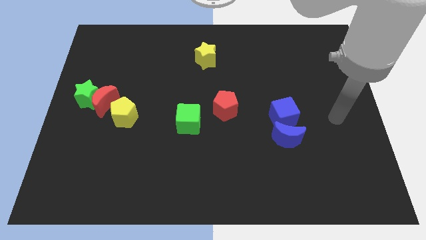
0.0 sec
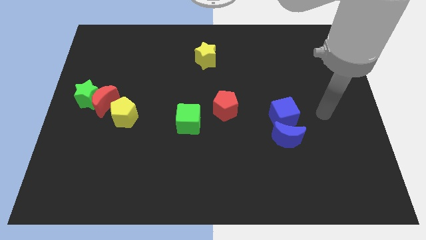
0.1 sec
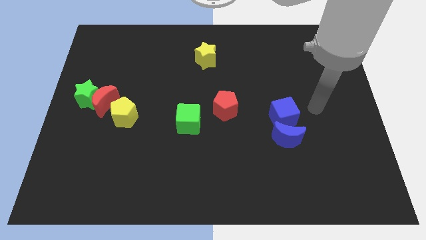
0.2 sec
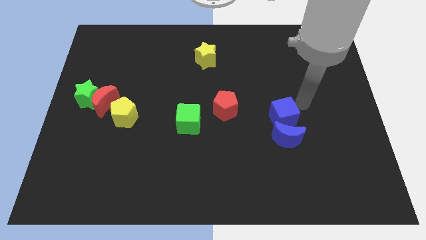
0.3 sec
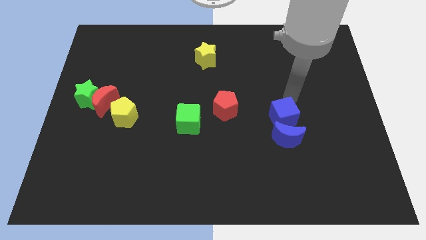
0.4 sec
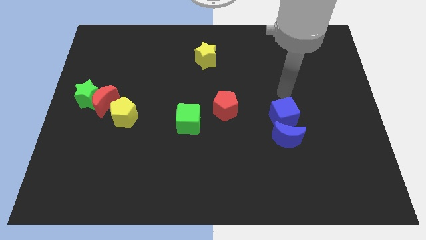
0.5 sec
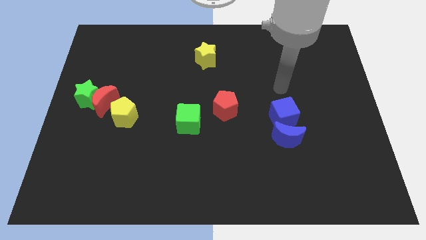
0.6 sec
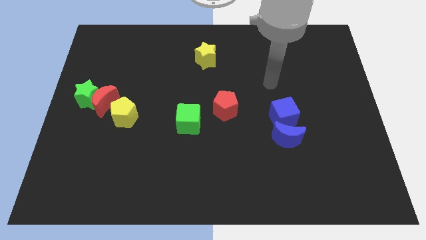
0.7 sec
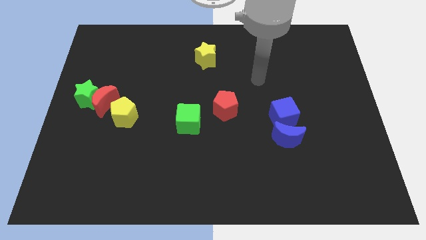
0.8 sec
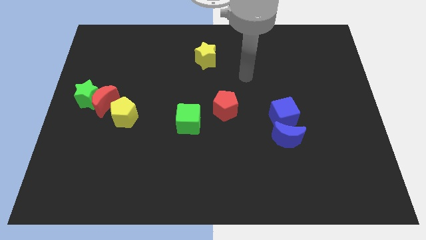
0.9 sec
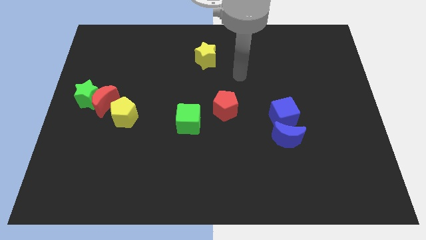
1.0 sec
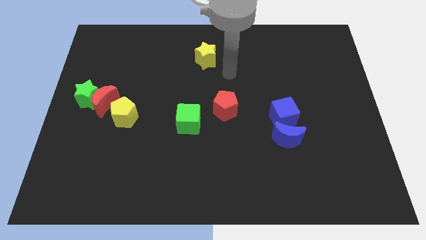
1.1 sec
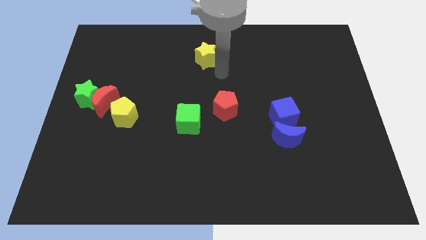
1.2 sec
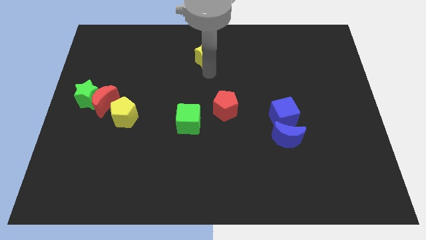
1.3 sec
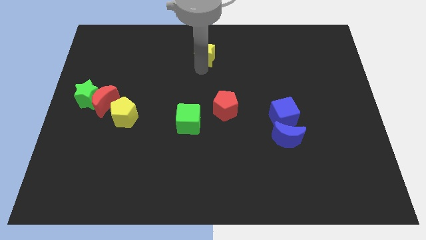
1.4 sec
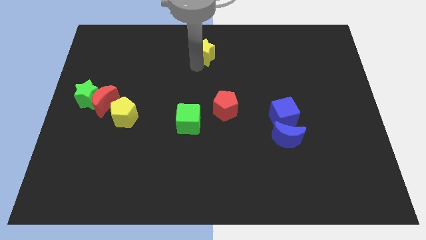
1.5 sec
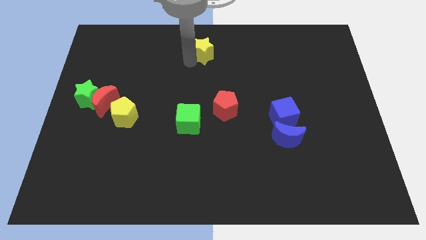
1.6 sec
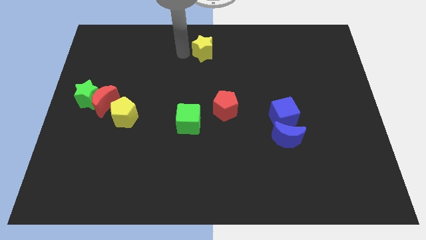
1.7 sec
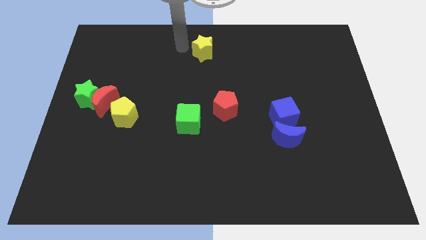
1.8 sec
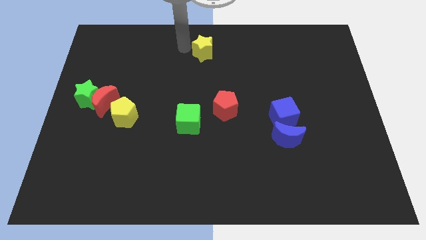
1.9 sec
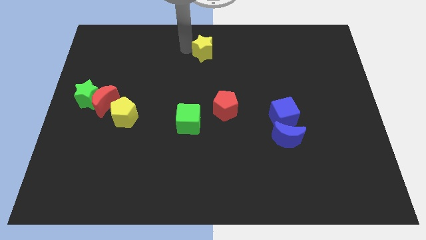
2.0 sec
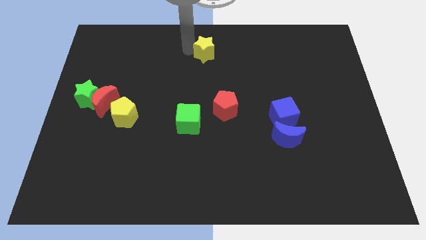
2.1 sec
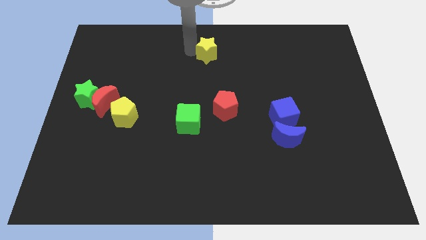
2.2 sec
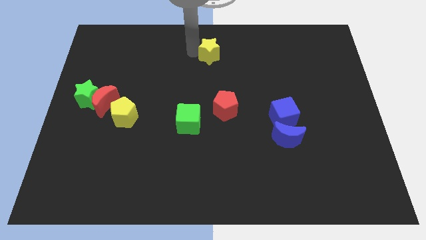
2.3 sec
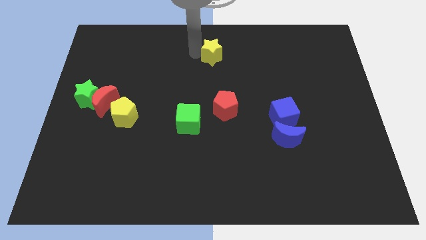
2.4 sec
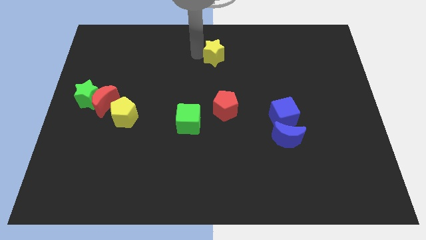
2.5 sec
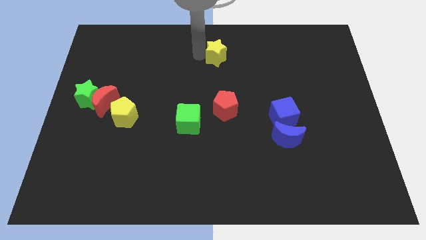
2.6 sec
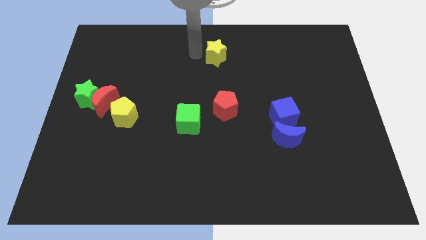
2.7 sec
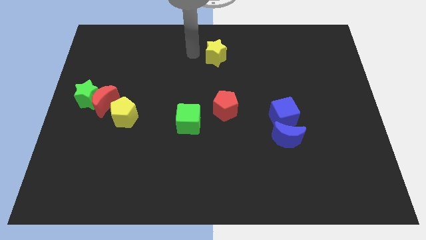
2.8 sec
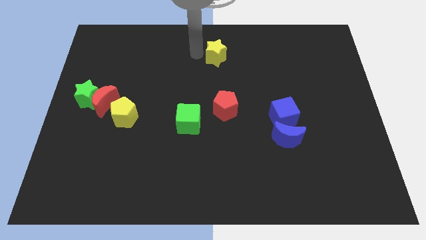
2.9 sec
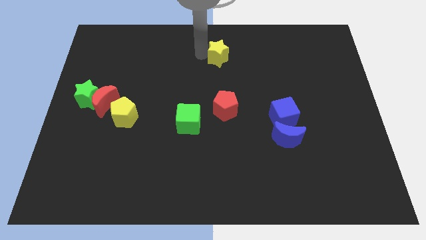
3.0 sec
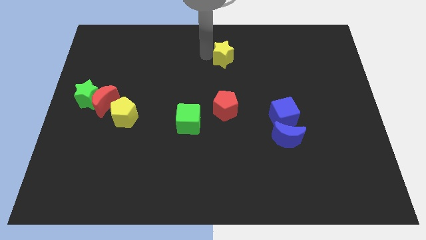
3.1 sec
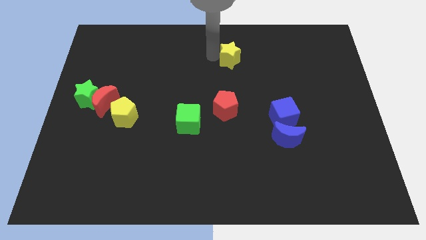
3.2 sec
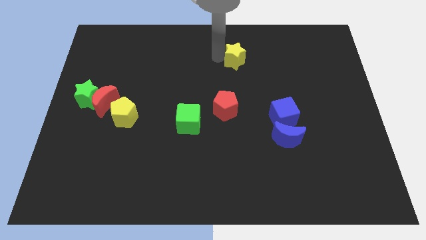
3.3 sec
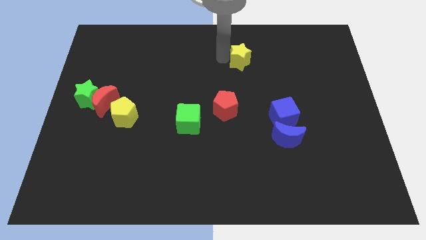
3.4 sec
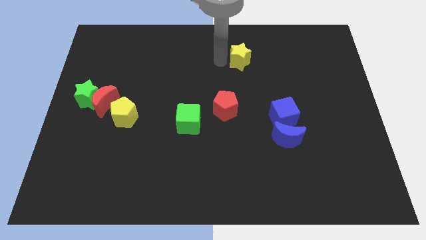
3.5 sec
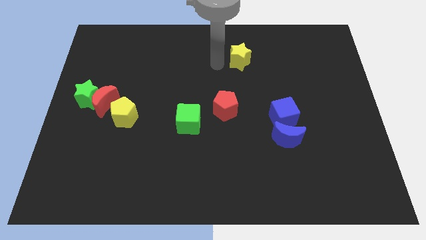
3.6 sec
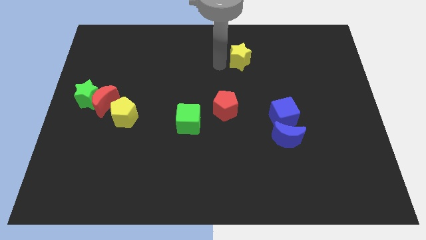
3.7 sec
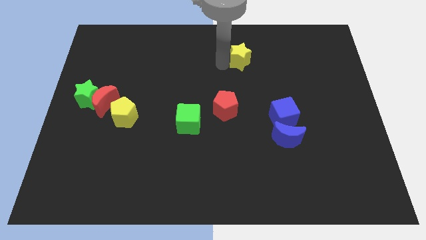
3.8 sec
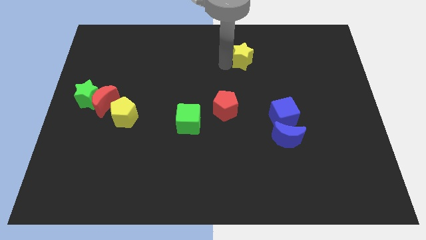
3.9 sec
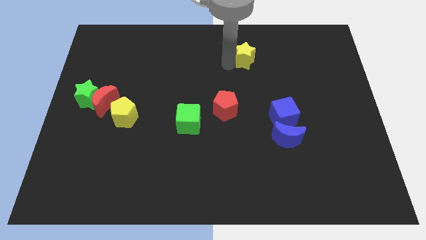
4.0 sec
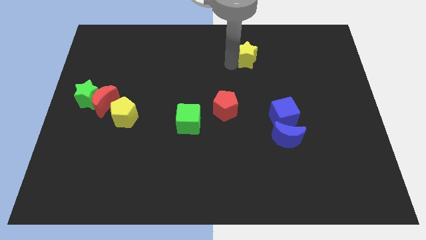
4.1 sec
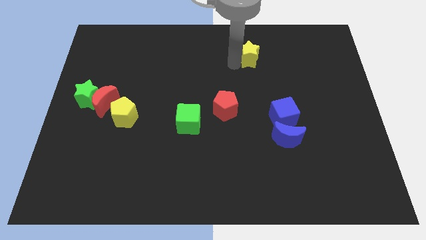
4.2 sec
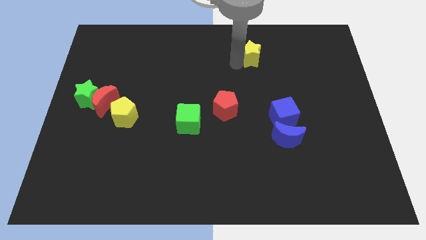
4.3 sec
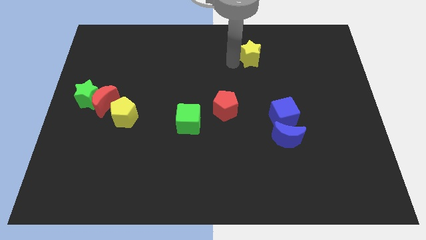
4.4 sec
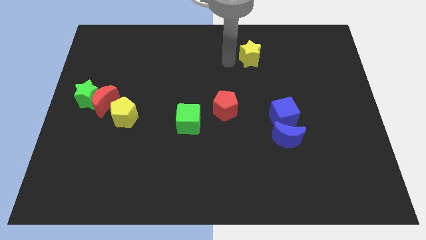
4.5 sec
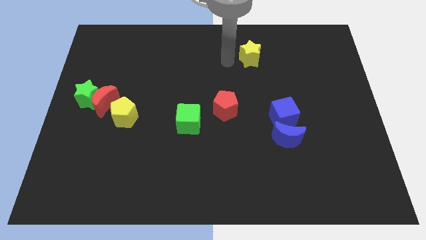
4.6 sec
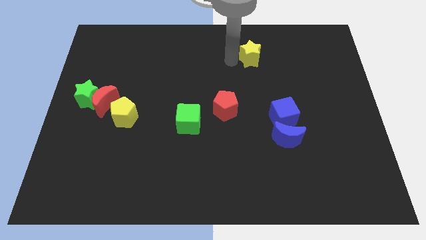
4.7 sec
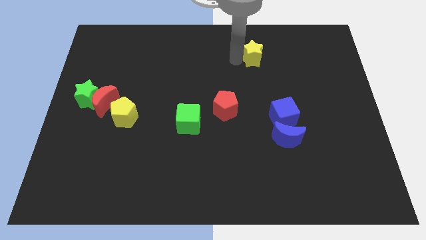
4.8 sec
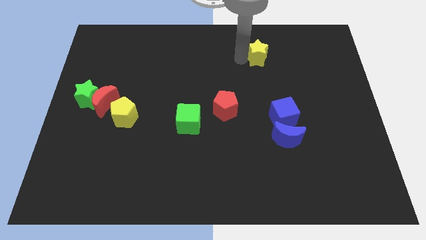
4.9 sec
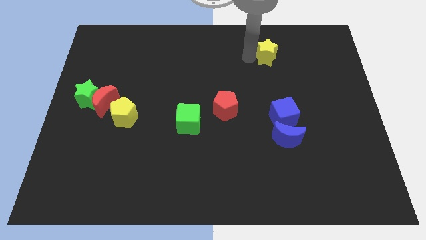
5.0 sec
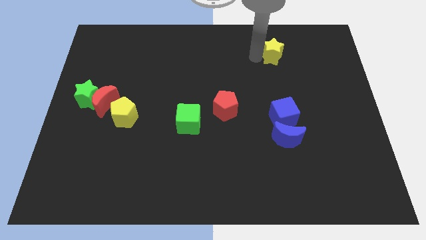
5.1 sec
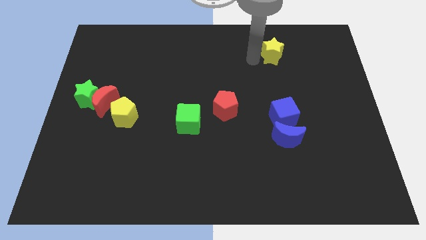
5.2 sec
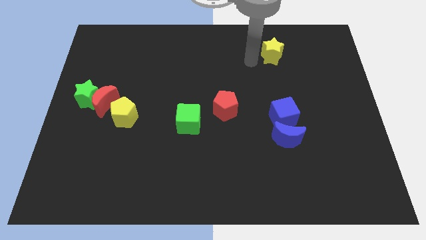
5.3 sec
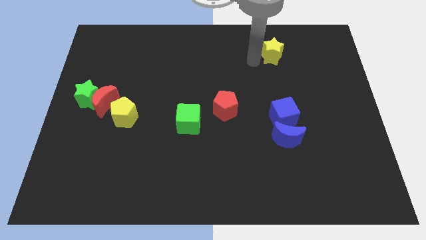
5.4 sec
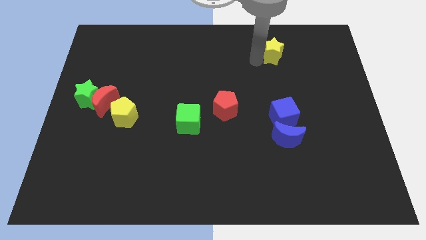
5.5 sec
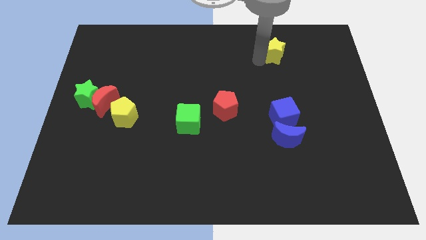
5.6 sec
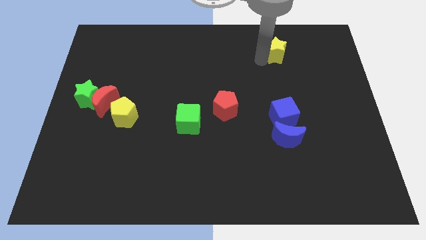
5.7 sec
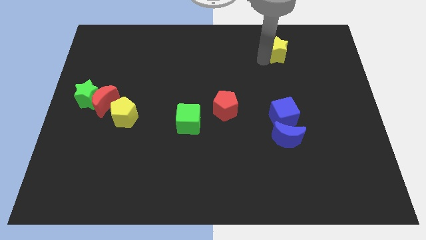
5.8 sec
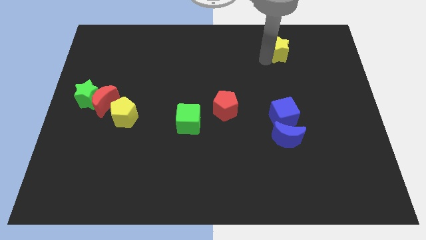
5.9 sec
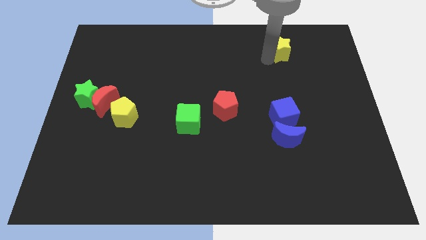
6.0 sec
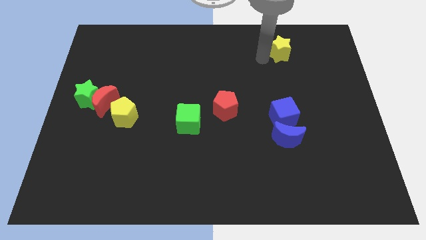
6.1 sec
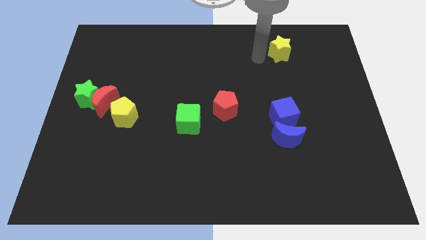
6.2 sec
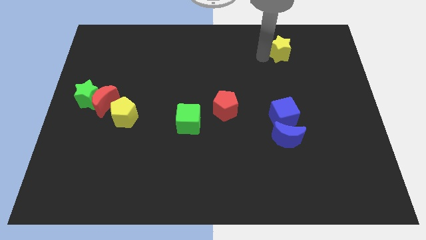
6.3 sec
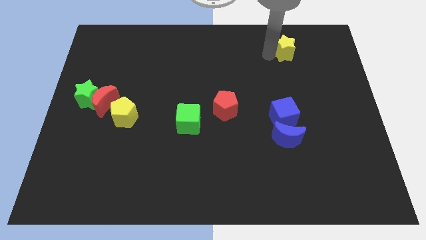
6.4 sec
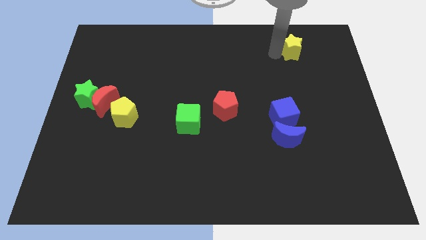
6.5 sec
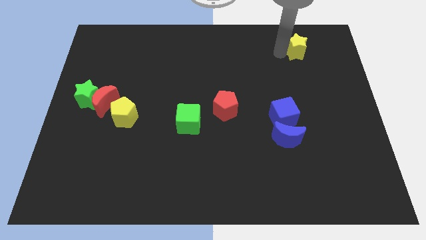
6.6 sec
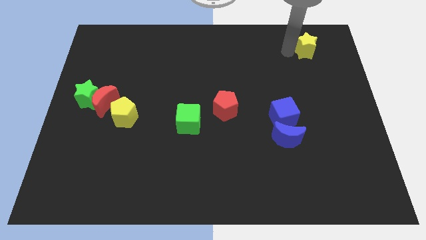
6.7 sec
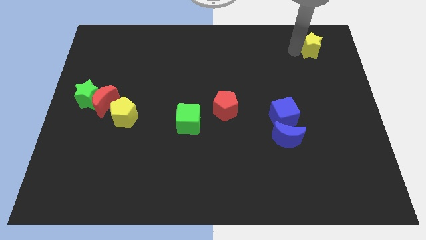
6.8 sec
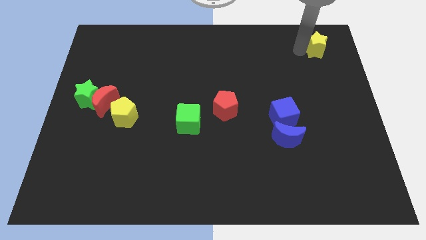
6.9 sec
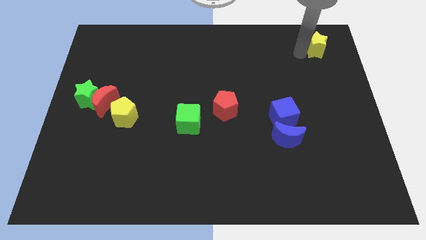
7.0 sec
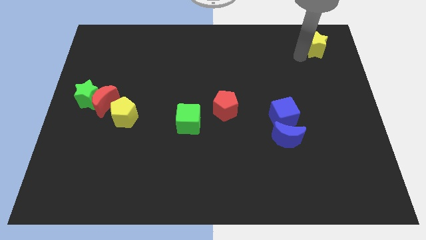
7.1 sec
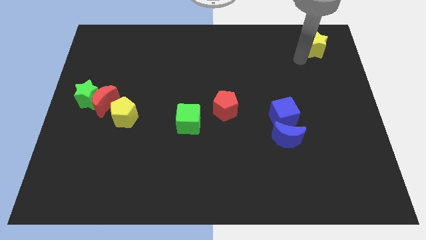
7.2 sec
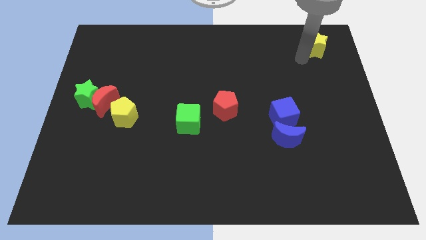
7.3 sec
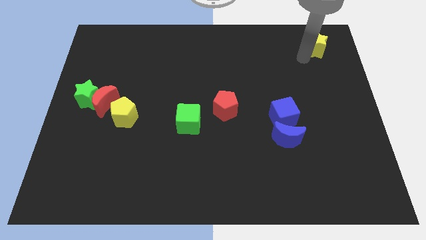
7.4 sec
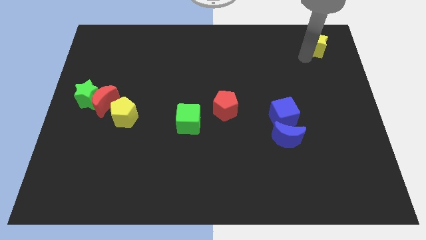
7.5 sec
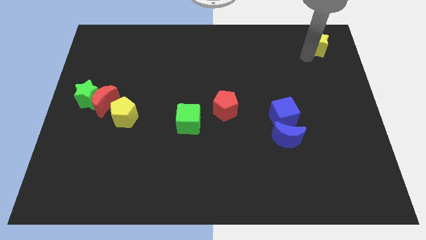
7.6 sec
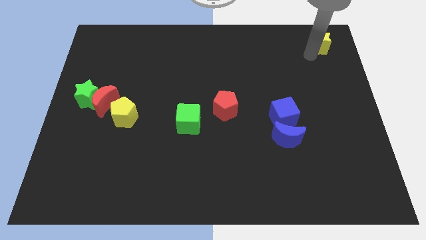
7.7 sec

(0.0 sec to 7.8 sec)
slide the yellow star to the upper right corner
